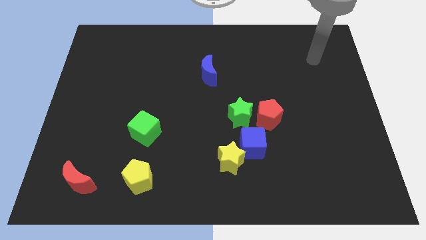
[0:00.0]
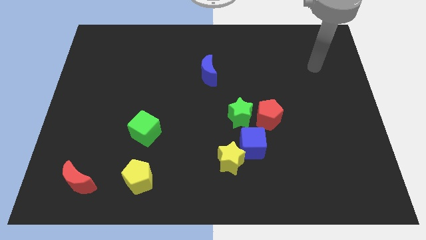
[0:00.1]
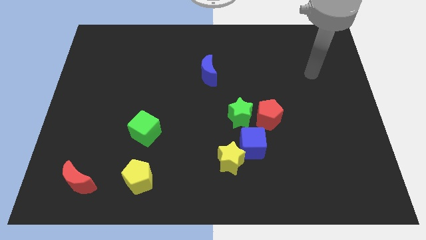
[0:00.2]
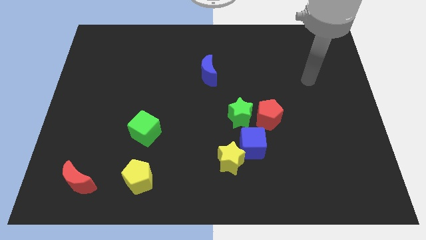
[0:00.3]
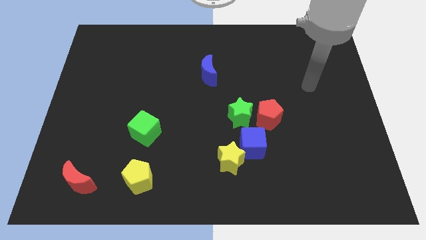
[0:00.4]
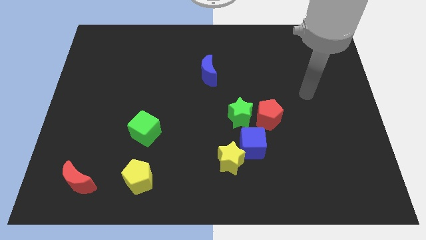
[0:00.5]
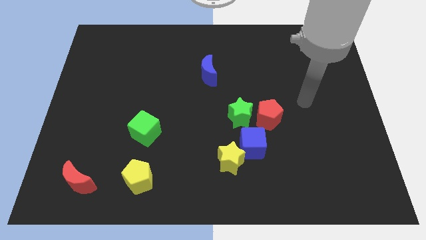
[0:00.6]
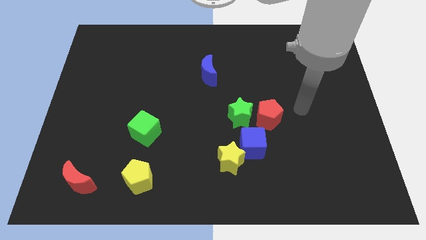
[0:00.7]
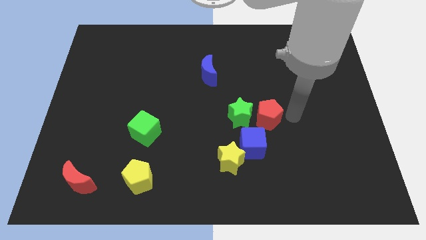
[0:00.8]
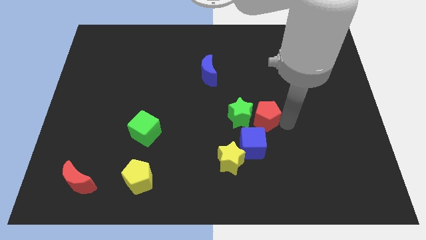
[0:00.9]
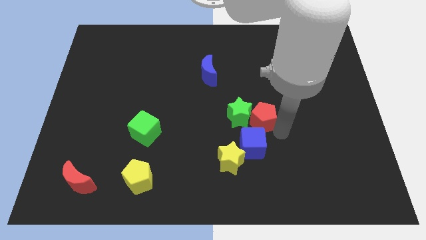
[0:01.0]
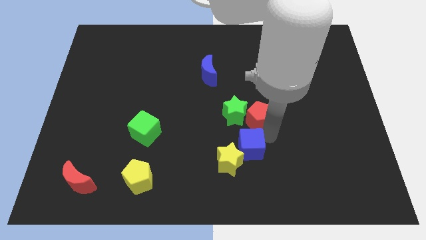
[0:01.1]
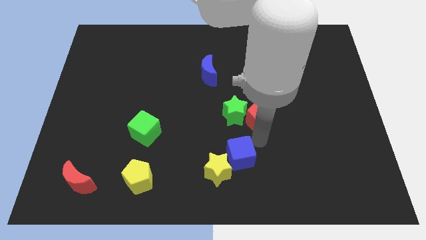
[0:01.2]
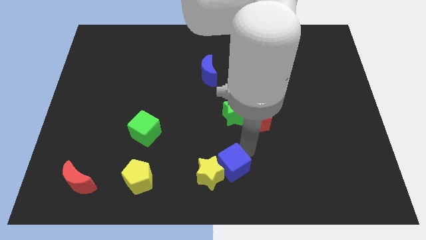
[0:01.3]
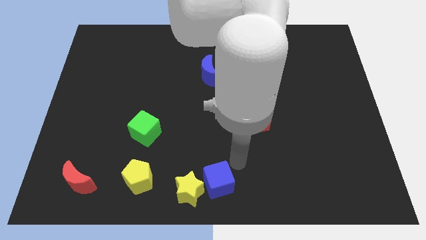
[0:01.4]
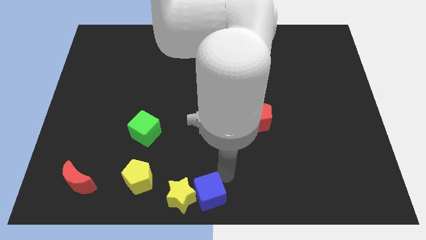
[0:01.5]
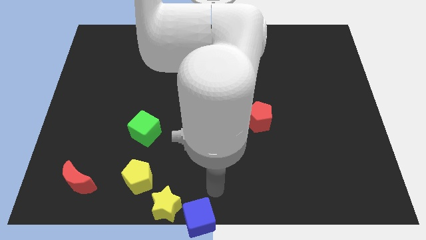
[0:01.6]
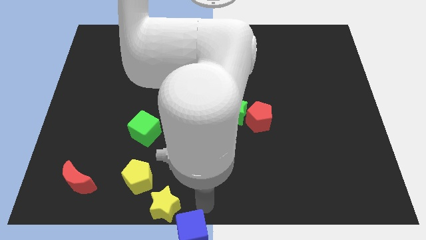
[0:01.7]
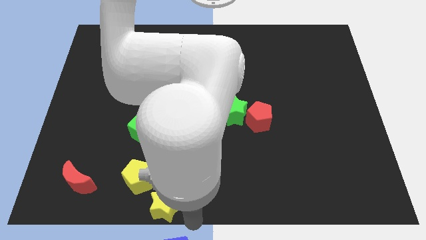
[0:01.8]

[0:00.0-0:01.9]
separate the yellow star from the blue cube

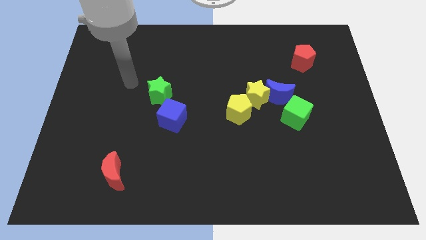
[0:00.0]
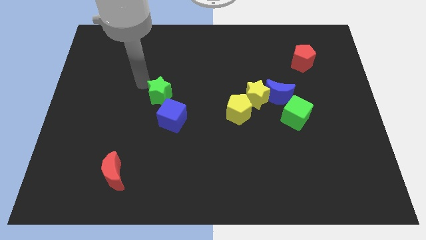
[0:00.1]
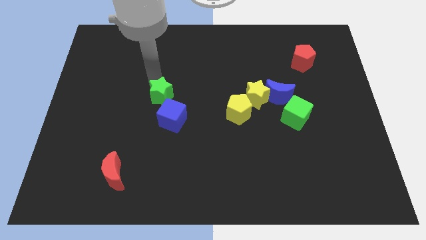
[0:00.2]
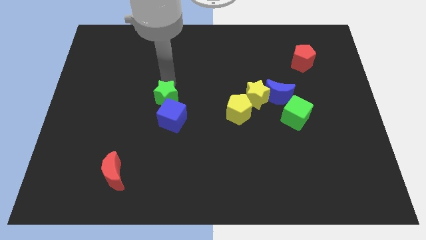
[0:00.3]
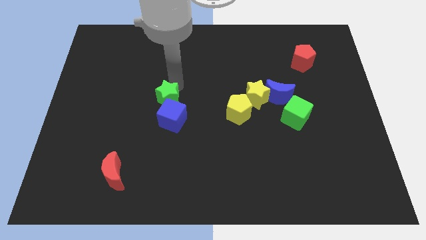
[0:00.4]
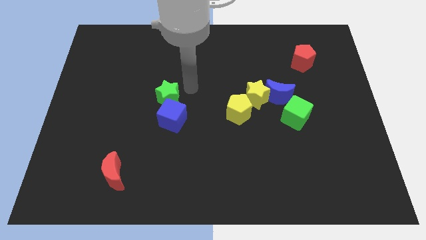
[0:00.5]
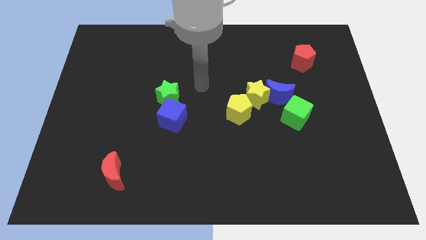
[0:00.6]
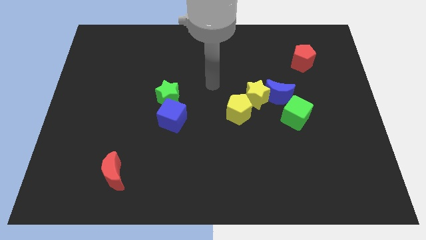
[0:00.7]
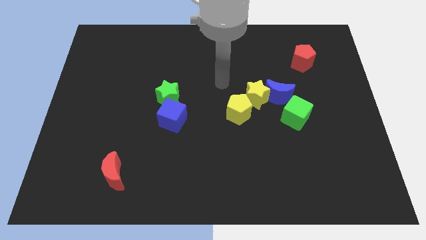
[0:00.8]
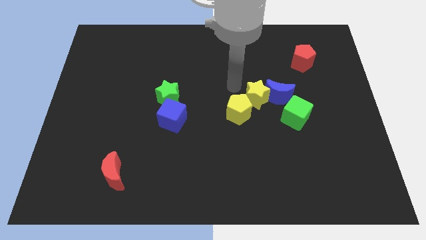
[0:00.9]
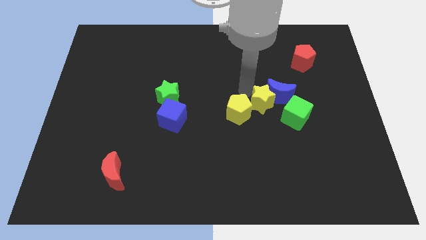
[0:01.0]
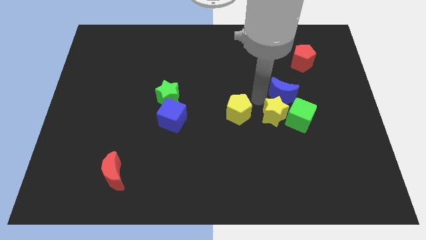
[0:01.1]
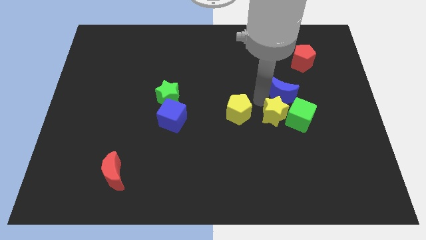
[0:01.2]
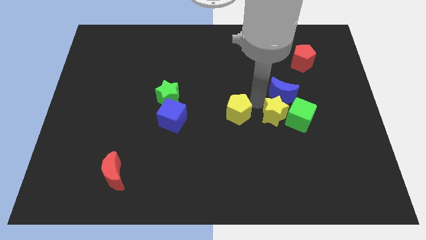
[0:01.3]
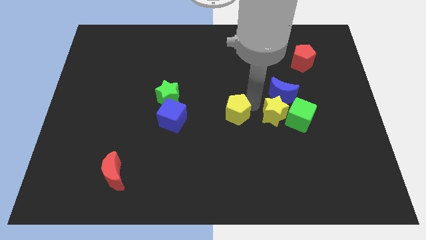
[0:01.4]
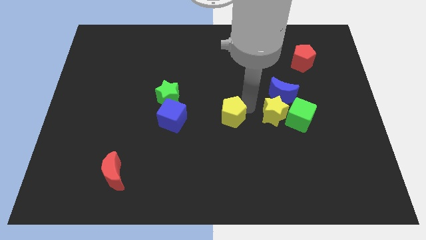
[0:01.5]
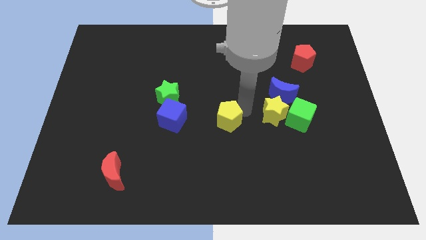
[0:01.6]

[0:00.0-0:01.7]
separate the yellow pentagon from the yellow star

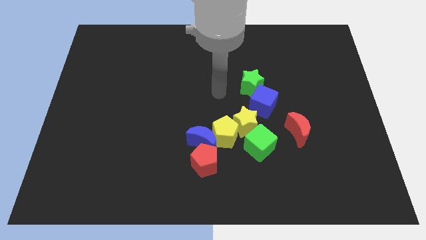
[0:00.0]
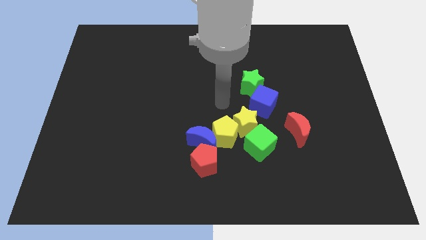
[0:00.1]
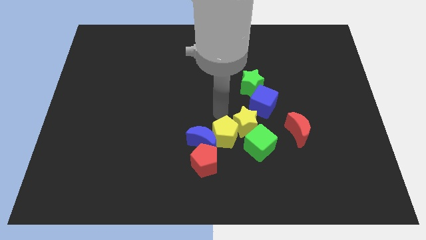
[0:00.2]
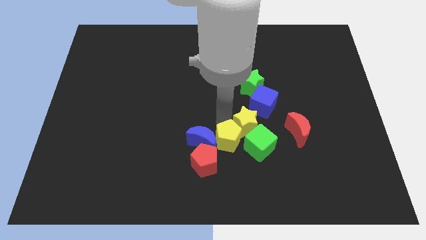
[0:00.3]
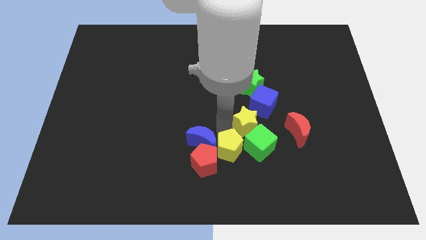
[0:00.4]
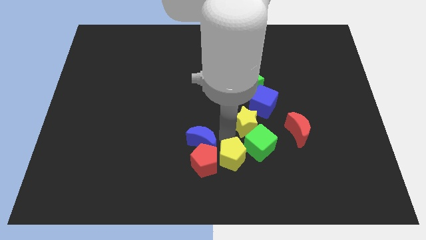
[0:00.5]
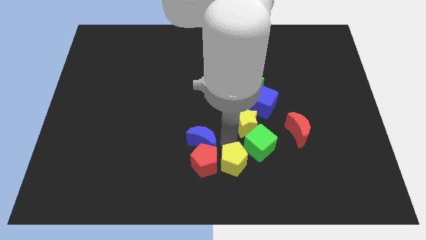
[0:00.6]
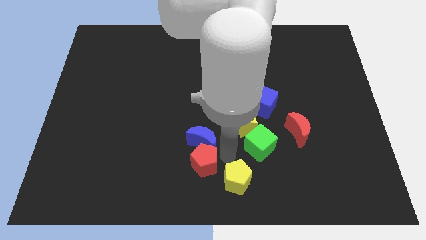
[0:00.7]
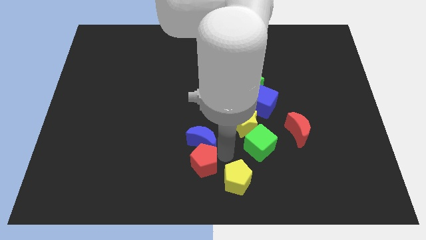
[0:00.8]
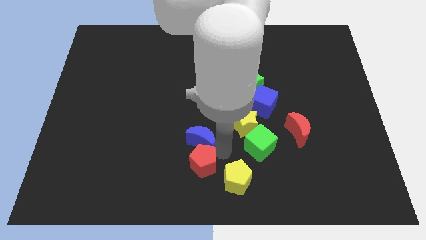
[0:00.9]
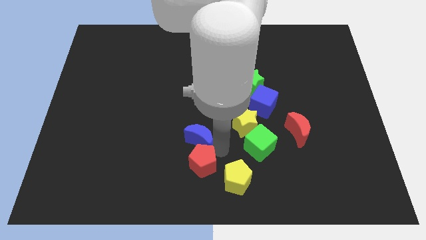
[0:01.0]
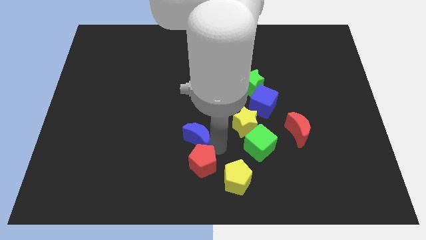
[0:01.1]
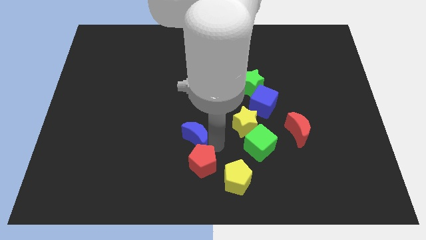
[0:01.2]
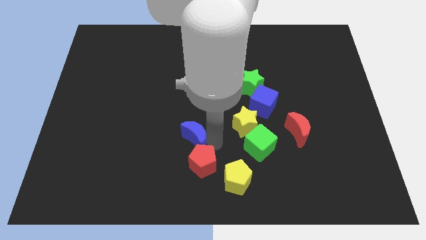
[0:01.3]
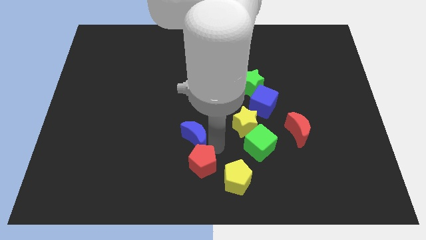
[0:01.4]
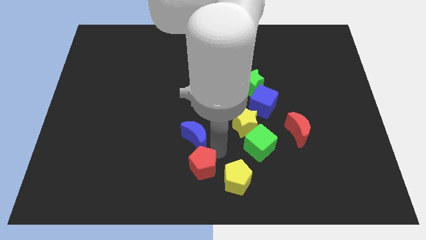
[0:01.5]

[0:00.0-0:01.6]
pull the blue moon apart from the yellow pentagon and red pentagon

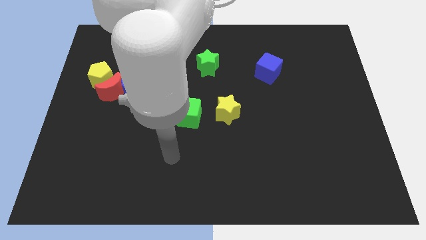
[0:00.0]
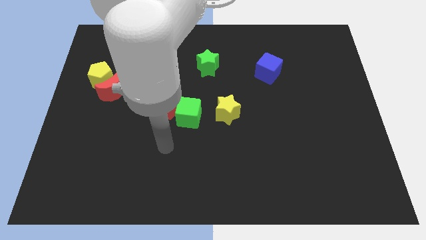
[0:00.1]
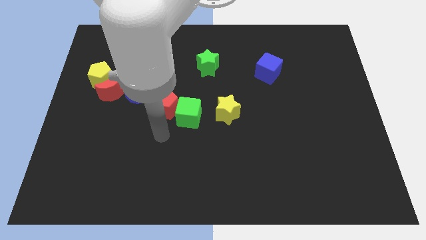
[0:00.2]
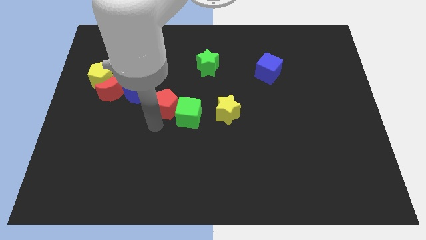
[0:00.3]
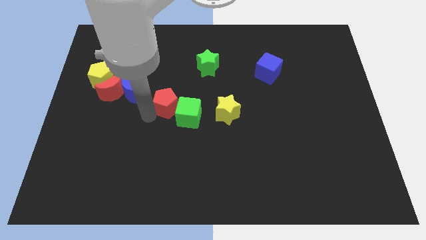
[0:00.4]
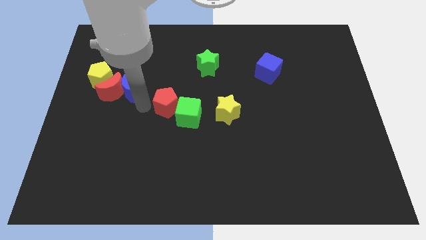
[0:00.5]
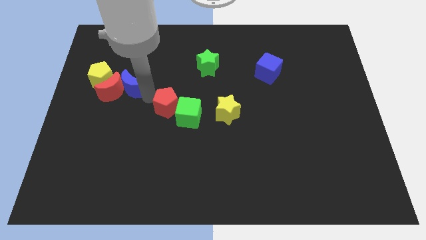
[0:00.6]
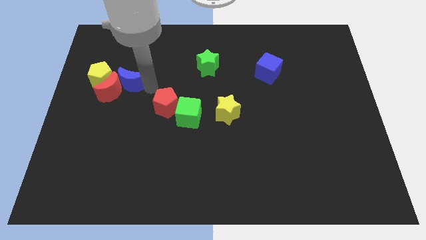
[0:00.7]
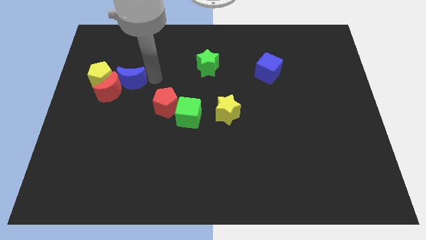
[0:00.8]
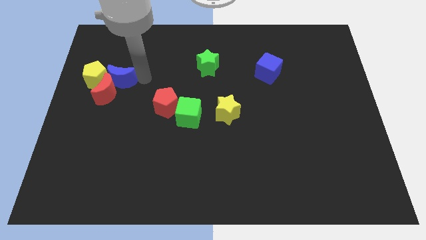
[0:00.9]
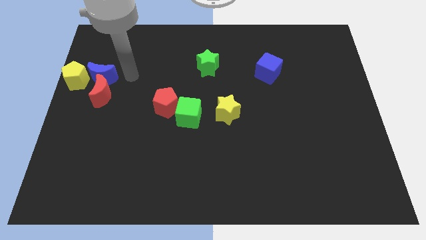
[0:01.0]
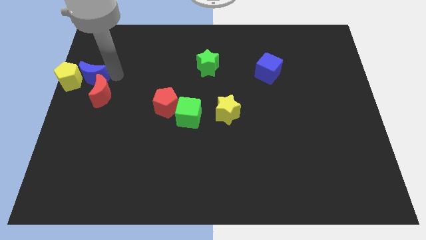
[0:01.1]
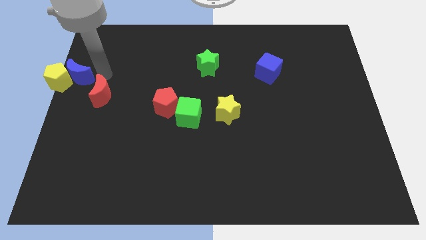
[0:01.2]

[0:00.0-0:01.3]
move the red moon away from the blue moon and yellow pentagon

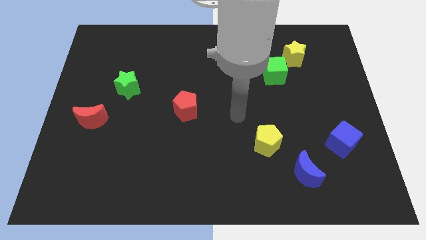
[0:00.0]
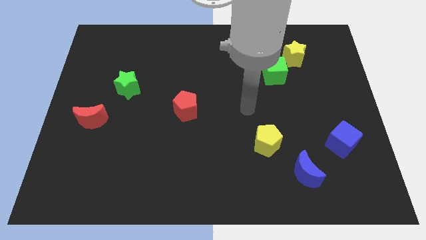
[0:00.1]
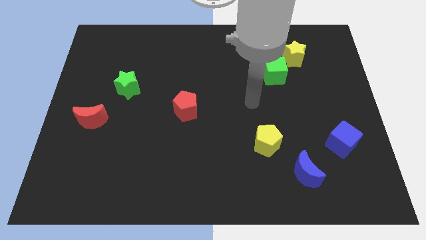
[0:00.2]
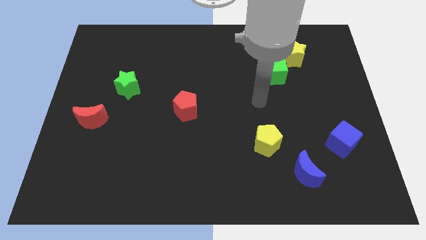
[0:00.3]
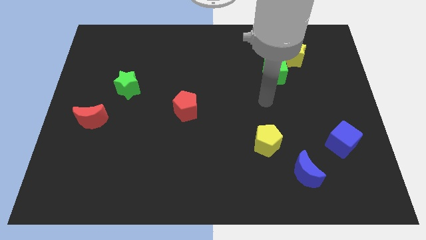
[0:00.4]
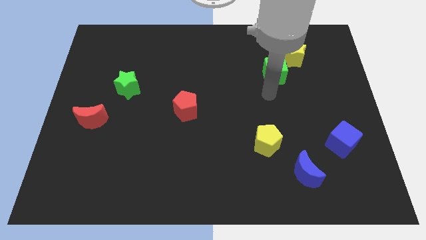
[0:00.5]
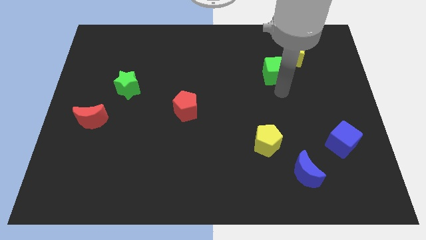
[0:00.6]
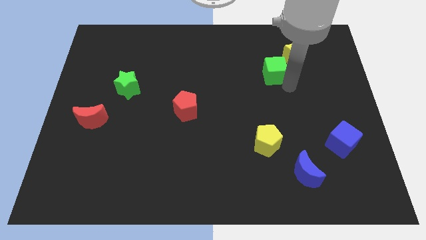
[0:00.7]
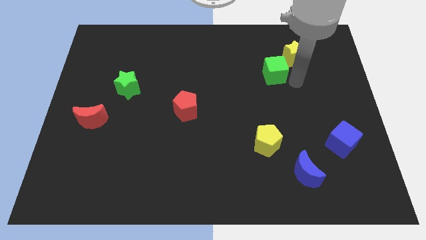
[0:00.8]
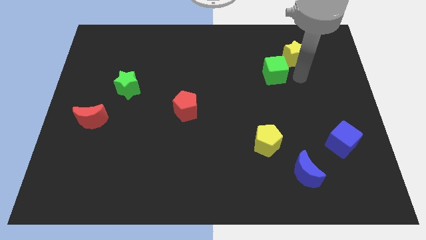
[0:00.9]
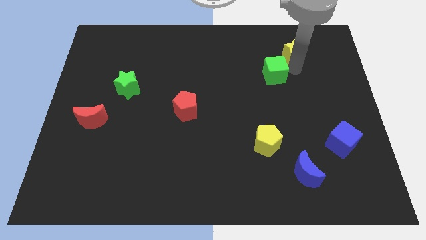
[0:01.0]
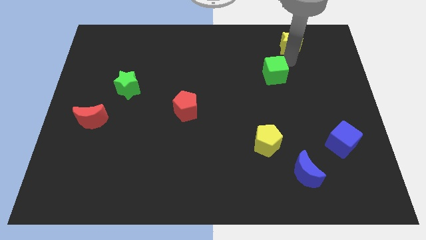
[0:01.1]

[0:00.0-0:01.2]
move the green cube away from the yellow star

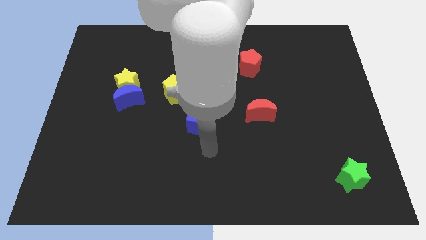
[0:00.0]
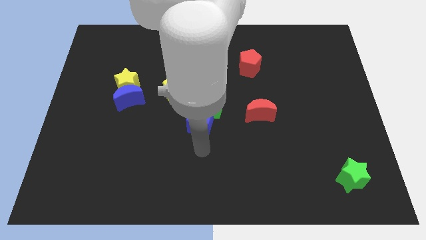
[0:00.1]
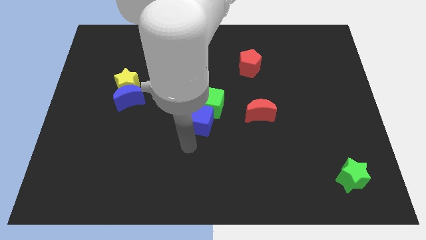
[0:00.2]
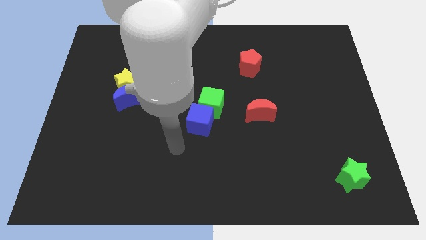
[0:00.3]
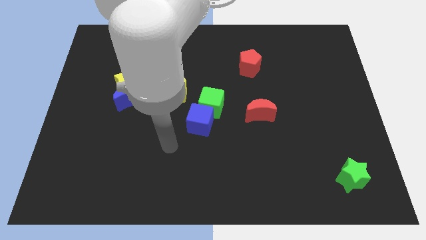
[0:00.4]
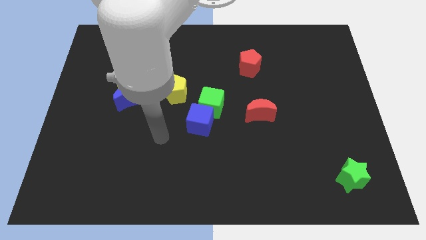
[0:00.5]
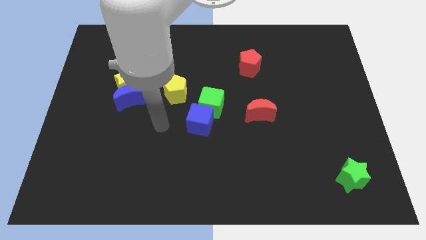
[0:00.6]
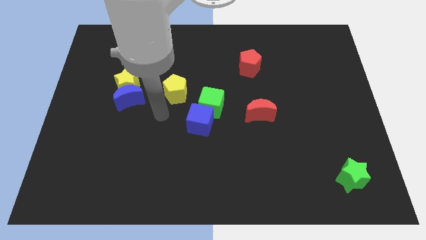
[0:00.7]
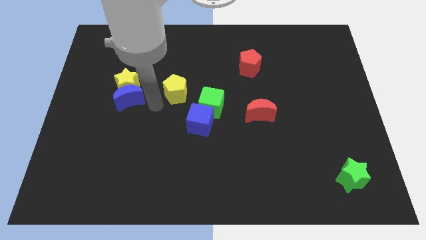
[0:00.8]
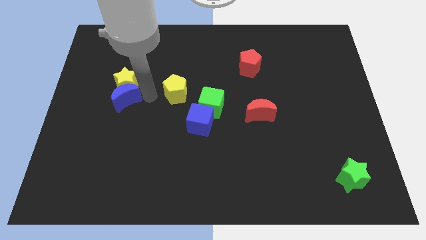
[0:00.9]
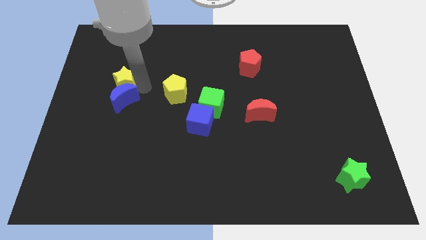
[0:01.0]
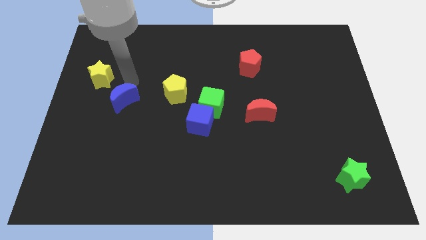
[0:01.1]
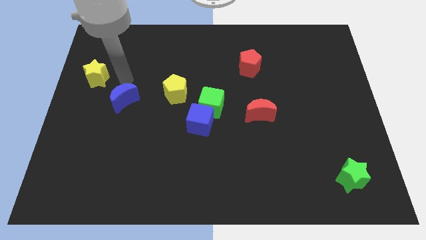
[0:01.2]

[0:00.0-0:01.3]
move the blue moon away from the yellow star

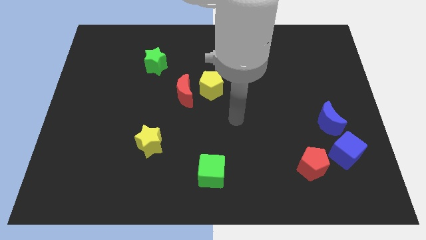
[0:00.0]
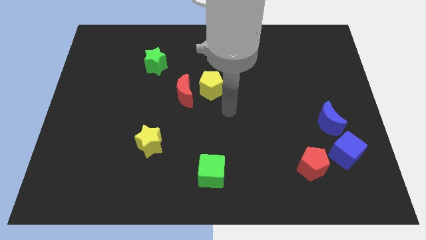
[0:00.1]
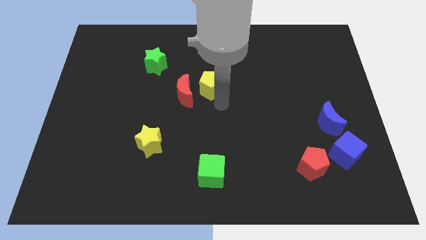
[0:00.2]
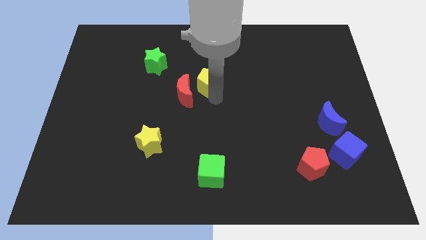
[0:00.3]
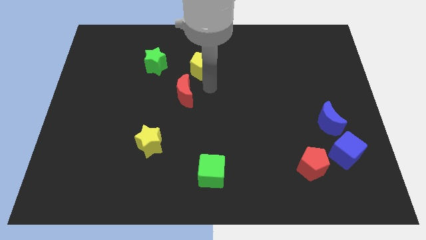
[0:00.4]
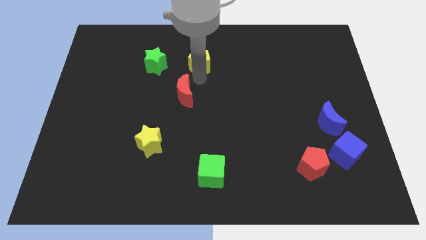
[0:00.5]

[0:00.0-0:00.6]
pull the red moon apart from the yellow pentagon
